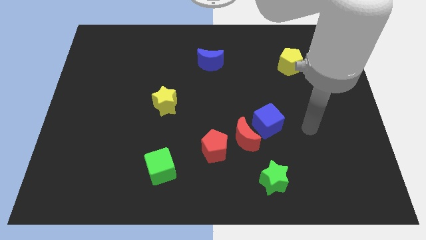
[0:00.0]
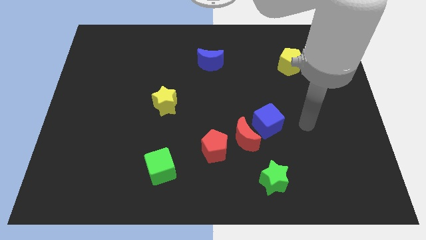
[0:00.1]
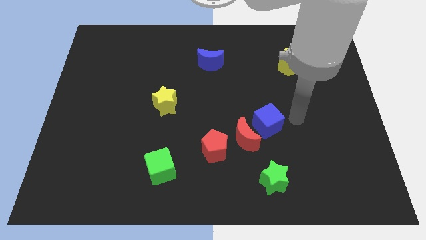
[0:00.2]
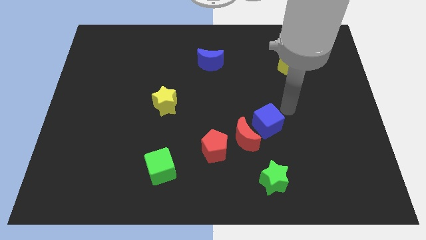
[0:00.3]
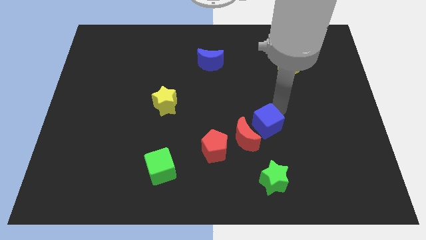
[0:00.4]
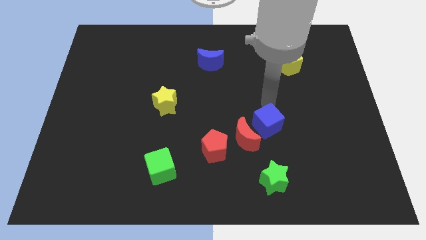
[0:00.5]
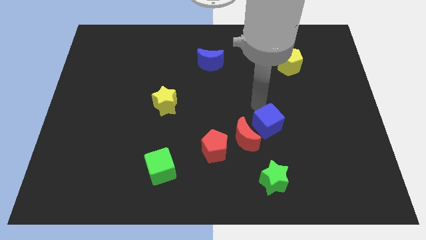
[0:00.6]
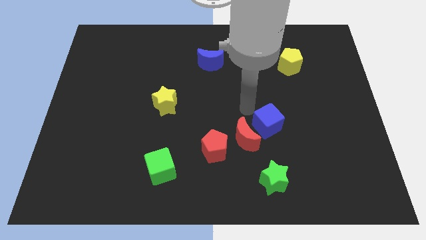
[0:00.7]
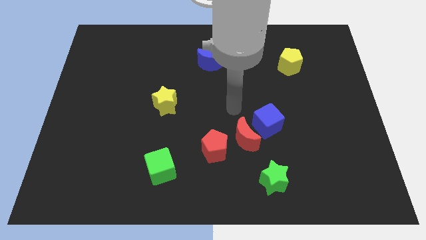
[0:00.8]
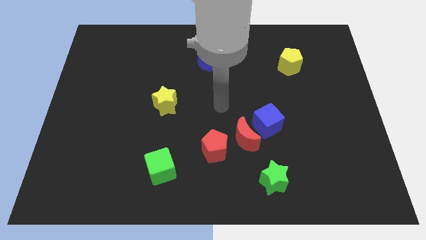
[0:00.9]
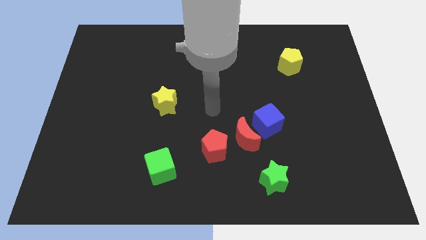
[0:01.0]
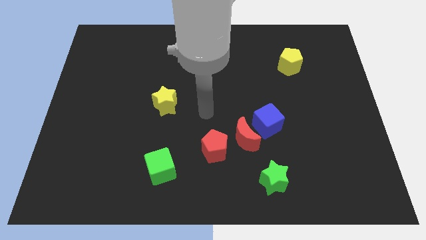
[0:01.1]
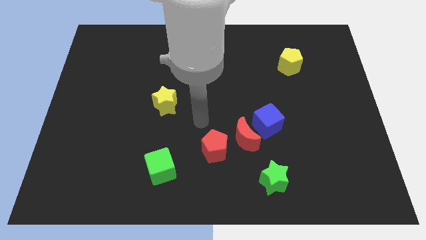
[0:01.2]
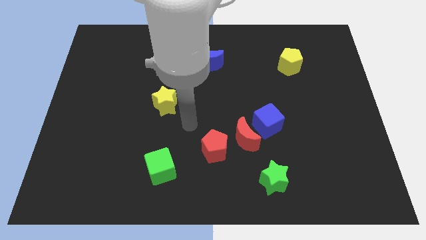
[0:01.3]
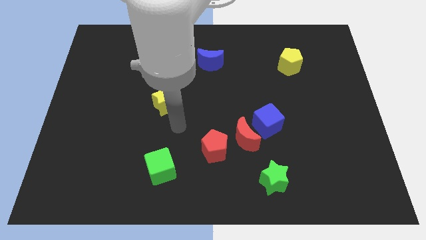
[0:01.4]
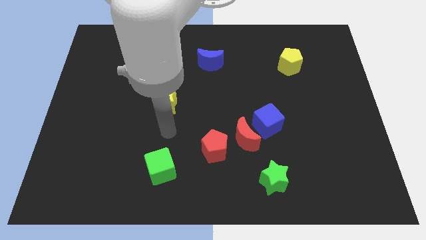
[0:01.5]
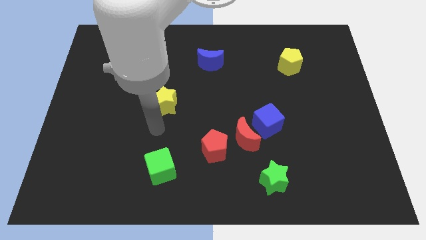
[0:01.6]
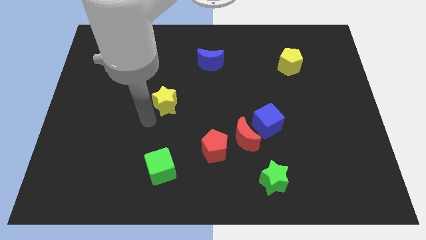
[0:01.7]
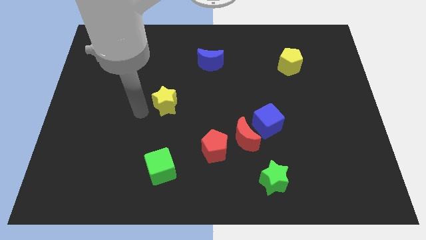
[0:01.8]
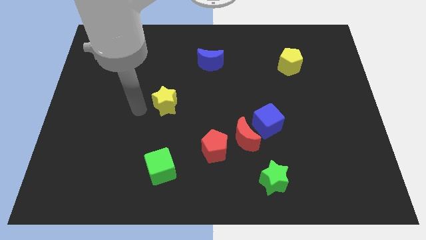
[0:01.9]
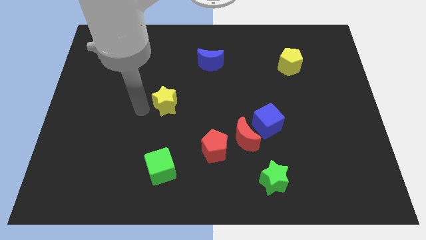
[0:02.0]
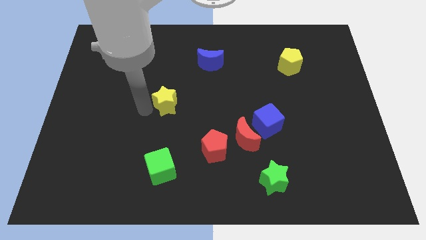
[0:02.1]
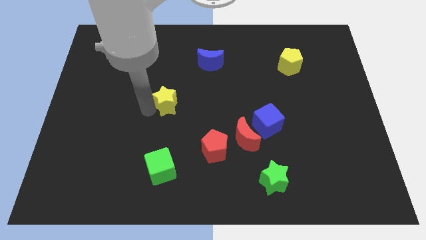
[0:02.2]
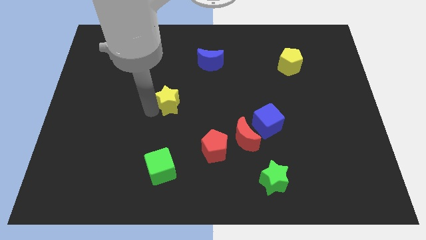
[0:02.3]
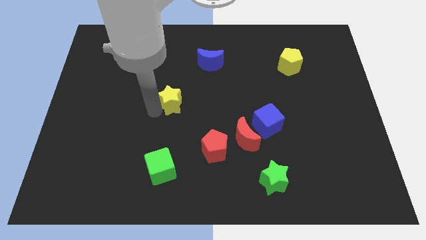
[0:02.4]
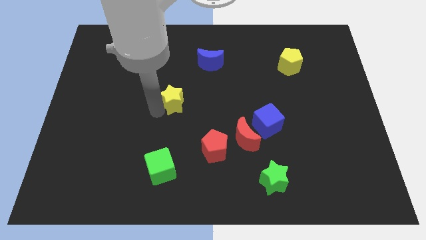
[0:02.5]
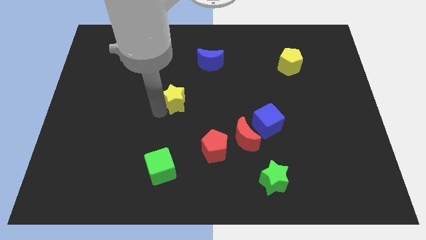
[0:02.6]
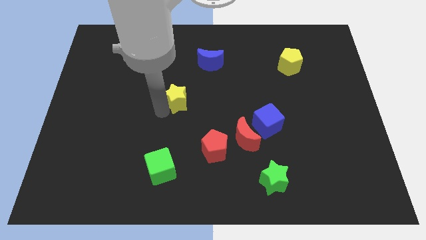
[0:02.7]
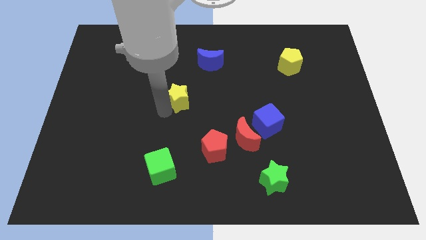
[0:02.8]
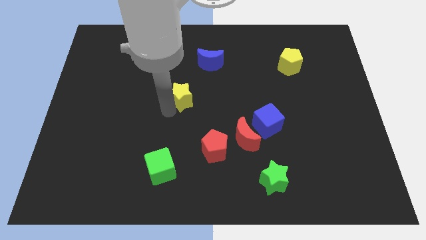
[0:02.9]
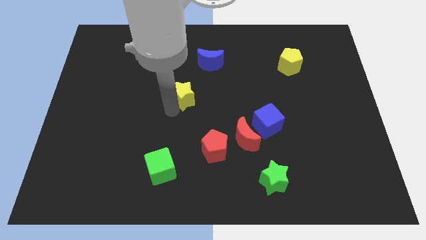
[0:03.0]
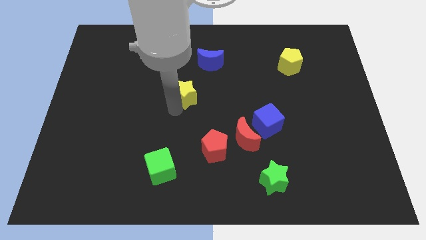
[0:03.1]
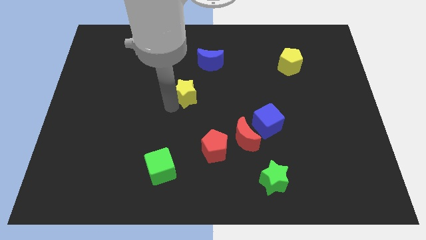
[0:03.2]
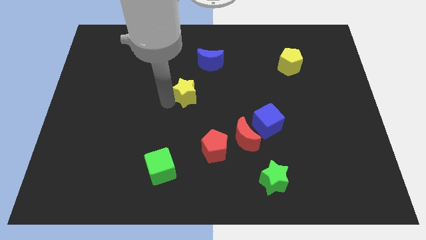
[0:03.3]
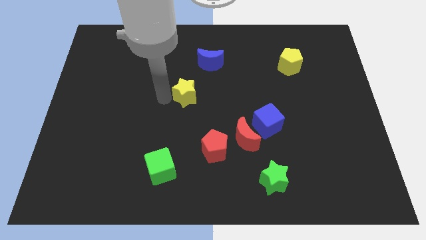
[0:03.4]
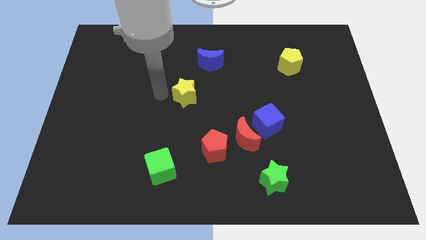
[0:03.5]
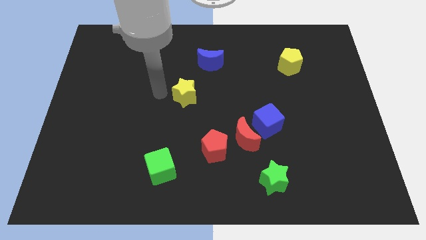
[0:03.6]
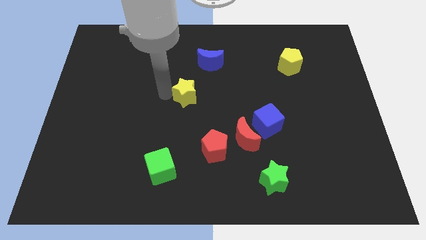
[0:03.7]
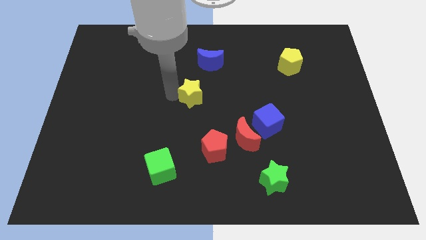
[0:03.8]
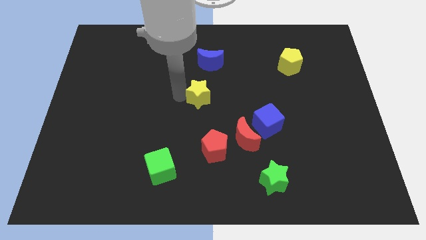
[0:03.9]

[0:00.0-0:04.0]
slightly slide the yellow star to the right

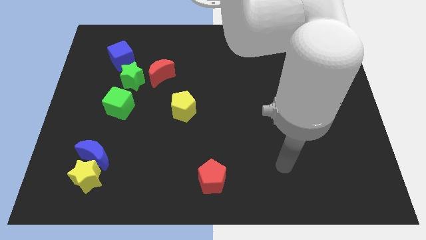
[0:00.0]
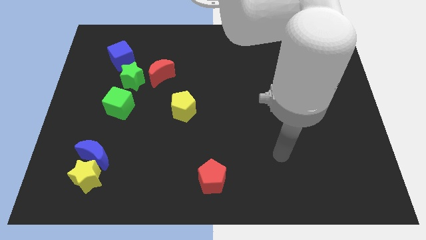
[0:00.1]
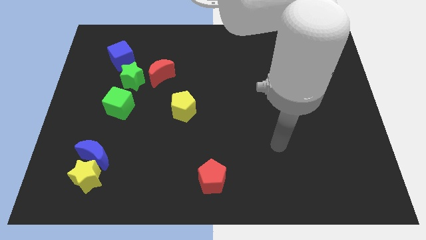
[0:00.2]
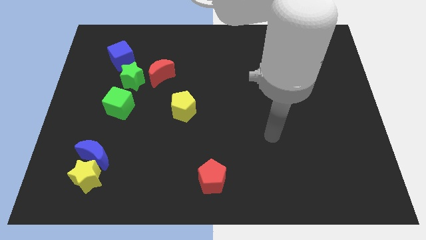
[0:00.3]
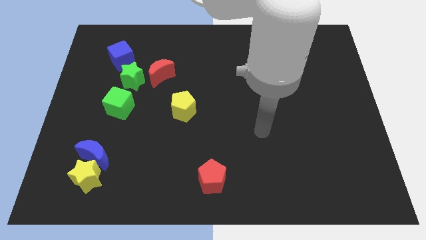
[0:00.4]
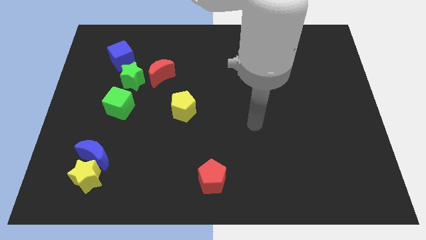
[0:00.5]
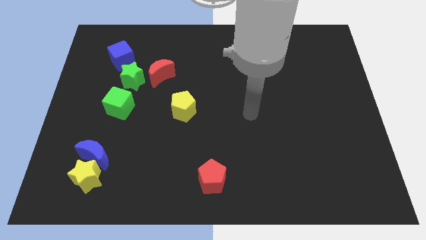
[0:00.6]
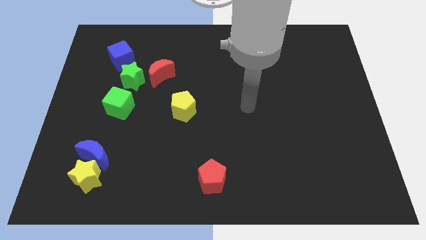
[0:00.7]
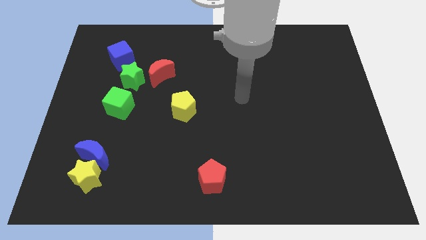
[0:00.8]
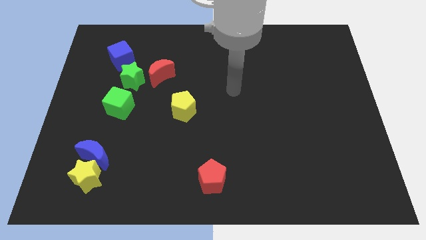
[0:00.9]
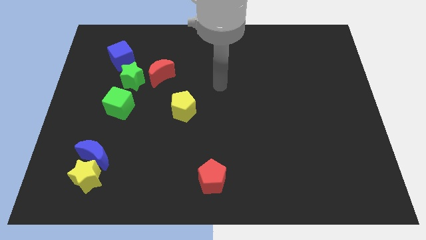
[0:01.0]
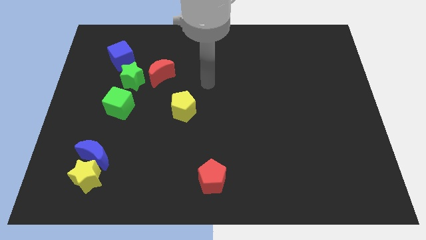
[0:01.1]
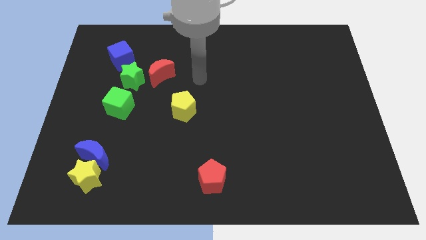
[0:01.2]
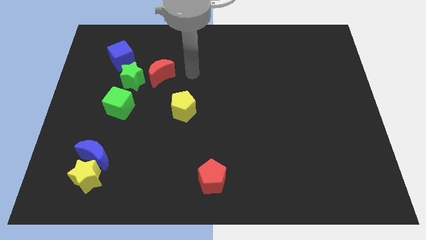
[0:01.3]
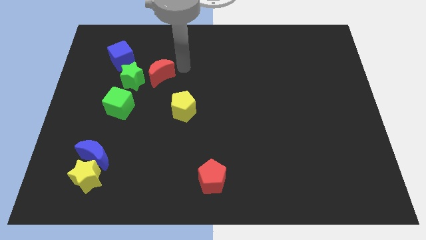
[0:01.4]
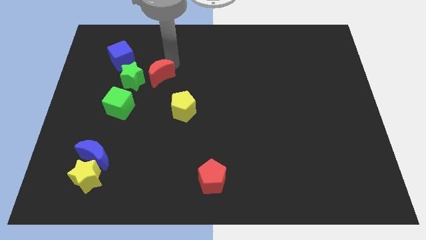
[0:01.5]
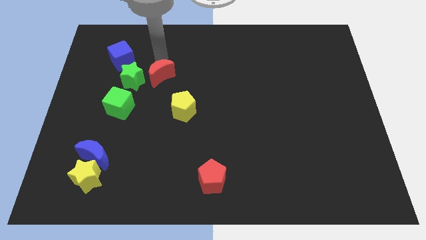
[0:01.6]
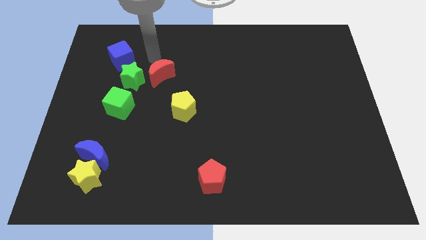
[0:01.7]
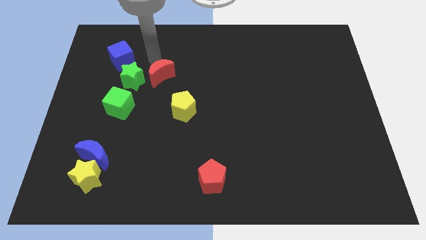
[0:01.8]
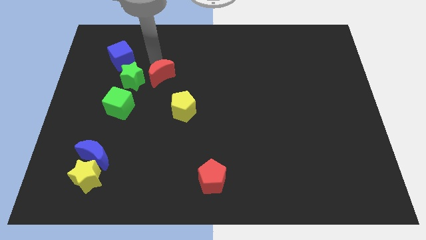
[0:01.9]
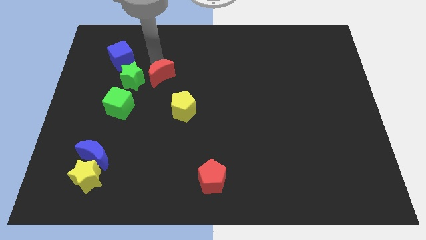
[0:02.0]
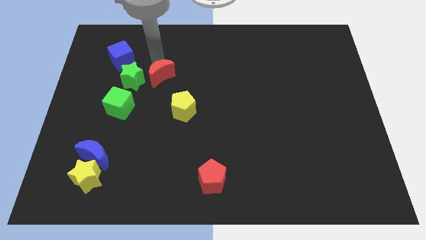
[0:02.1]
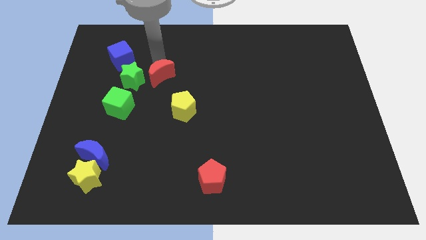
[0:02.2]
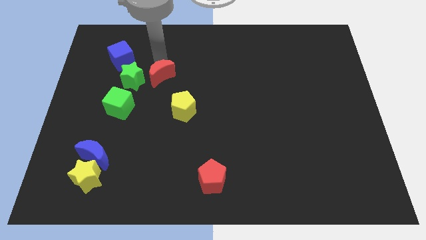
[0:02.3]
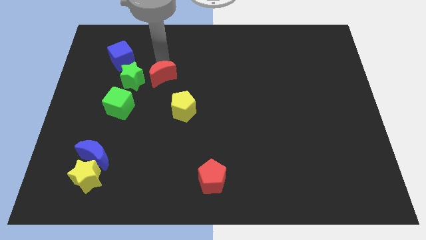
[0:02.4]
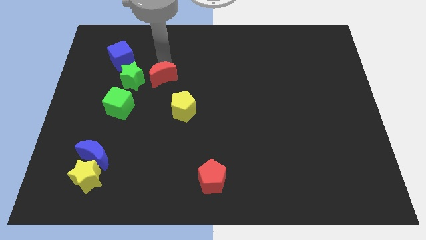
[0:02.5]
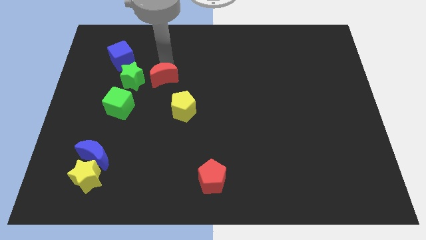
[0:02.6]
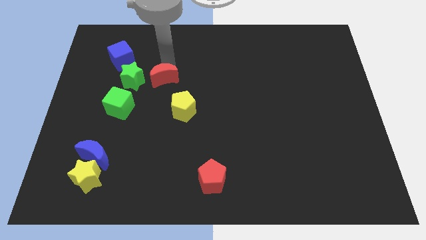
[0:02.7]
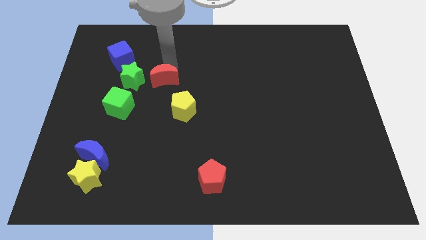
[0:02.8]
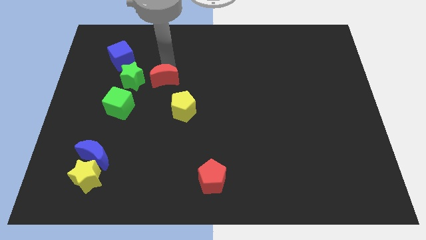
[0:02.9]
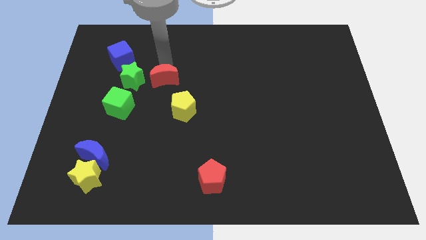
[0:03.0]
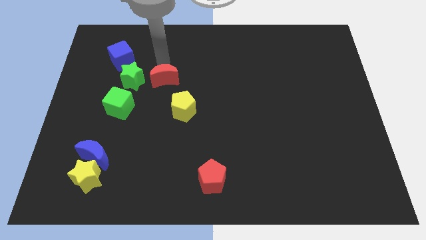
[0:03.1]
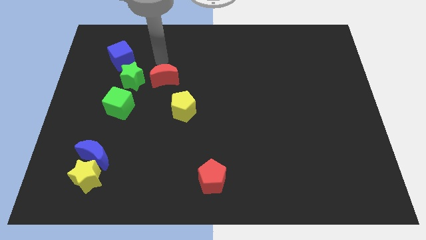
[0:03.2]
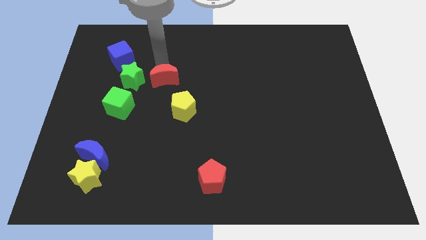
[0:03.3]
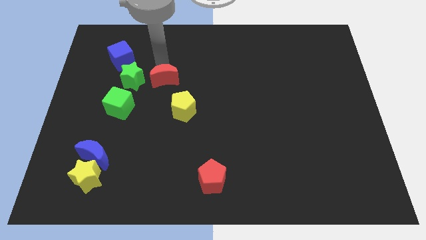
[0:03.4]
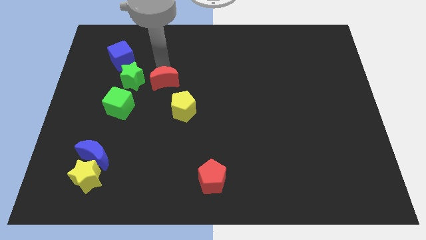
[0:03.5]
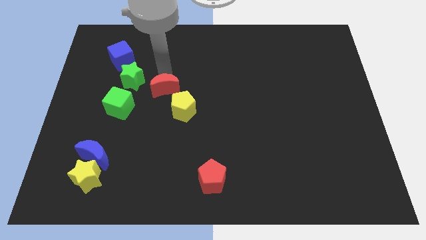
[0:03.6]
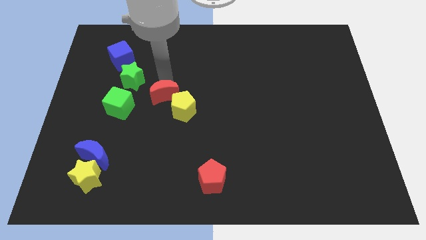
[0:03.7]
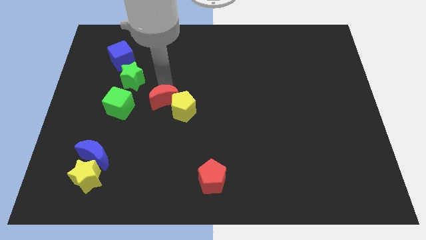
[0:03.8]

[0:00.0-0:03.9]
push the red moon downwards a little
